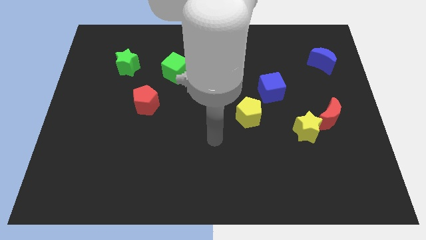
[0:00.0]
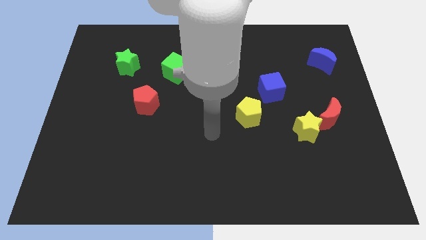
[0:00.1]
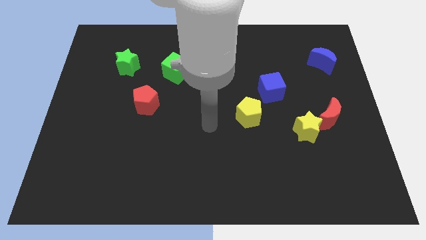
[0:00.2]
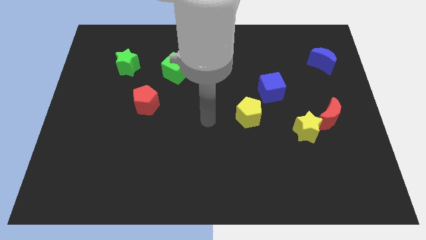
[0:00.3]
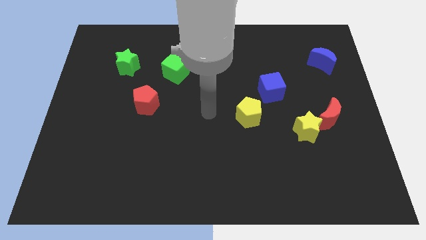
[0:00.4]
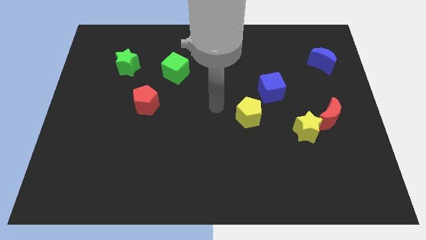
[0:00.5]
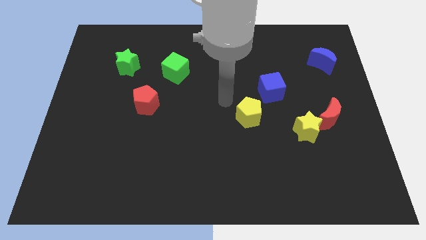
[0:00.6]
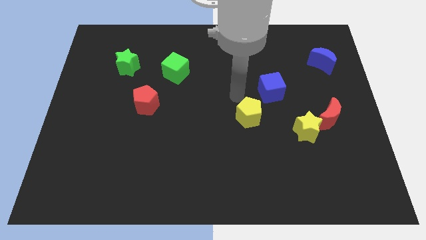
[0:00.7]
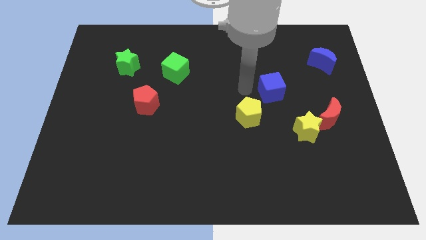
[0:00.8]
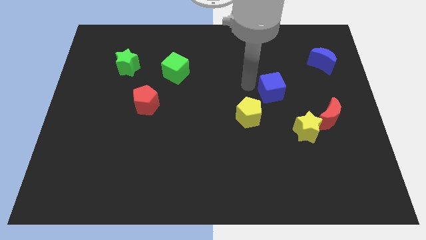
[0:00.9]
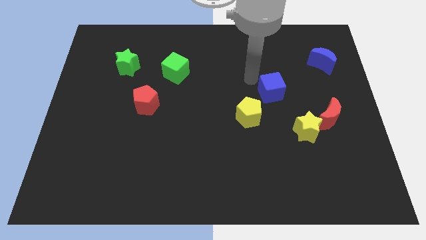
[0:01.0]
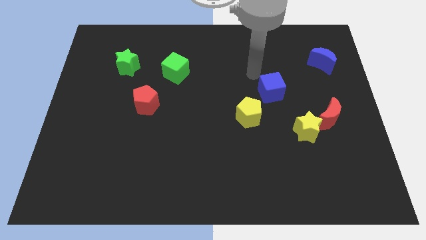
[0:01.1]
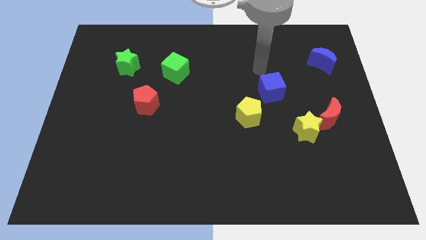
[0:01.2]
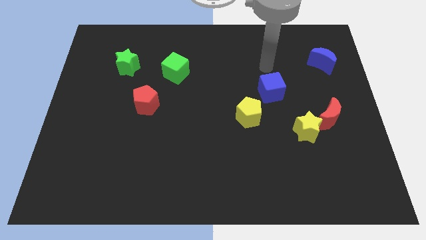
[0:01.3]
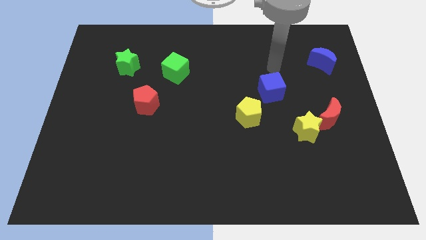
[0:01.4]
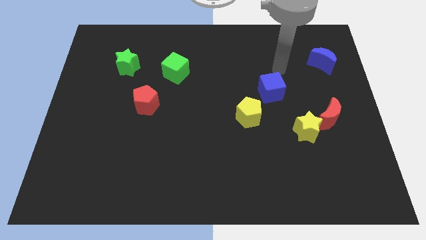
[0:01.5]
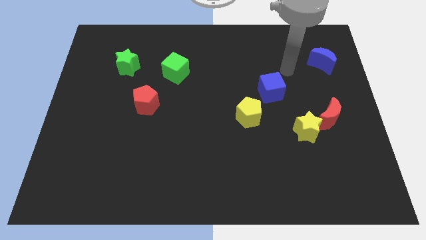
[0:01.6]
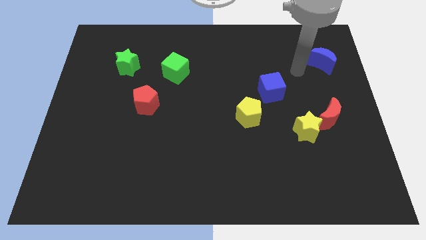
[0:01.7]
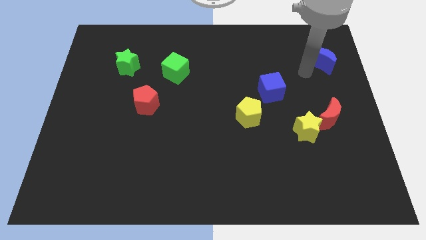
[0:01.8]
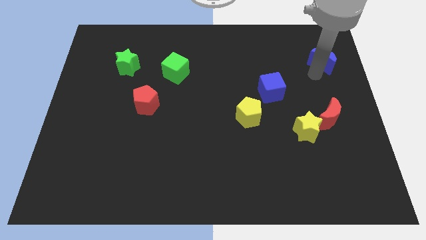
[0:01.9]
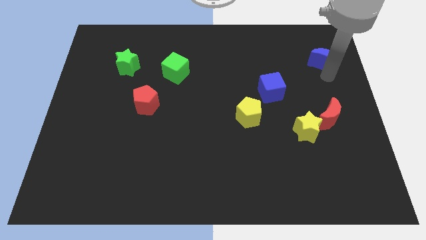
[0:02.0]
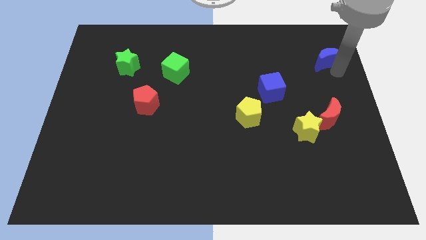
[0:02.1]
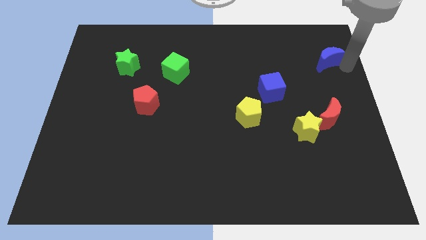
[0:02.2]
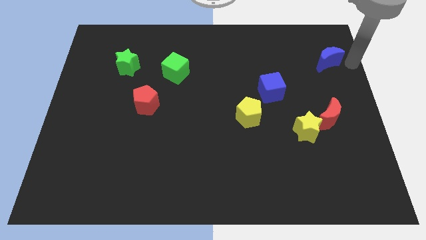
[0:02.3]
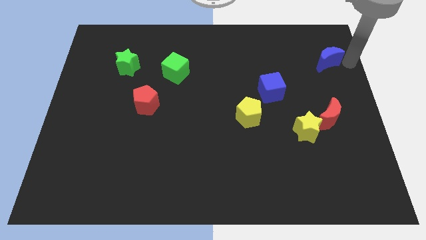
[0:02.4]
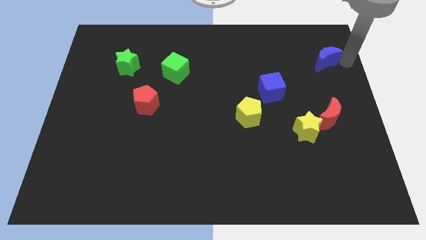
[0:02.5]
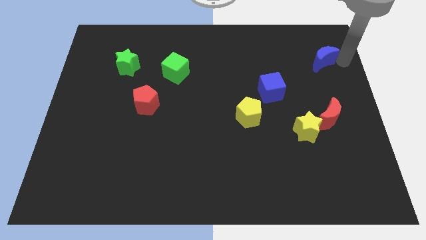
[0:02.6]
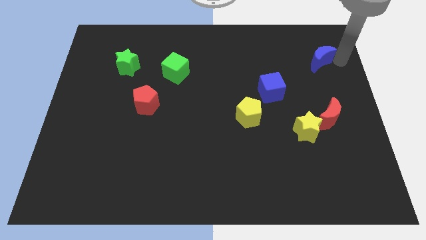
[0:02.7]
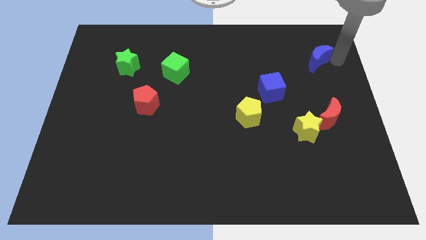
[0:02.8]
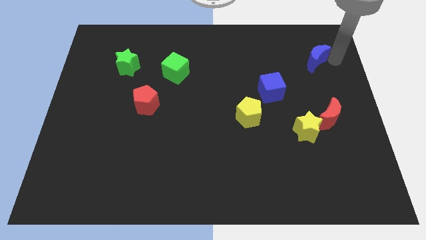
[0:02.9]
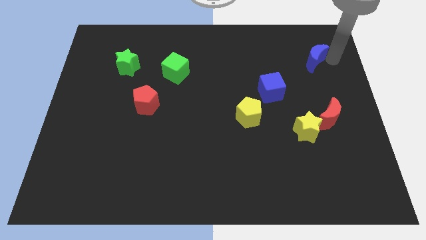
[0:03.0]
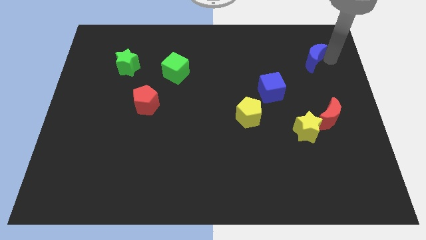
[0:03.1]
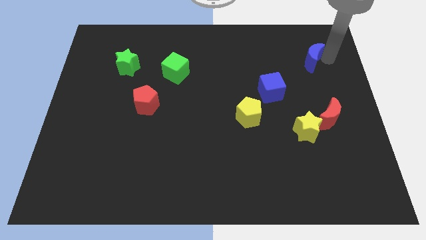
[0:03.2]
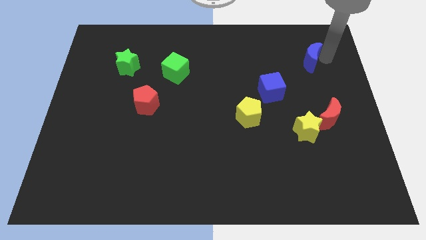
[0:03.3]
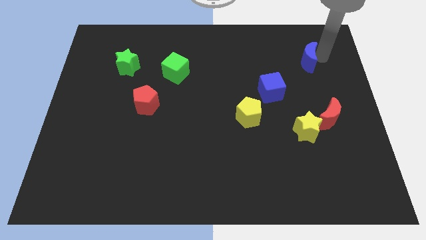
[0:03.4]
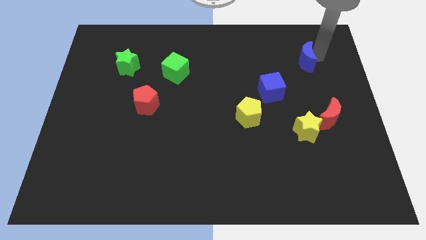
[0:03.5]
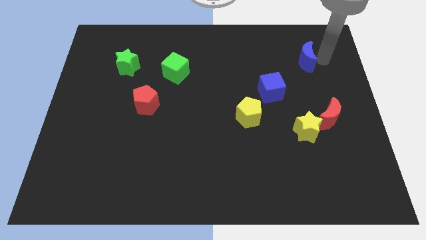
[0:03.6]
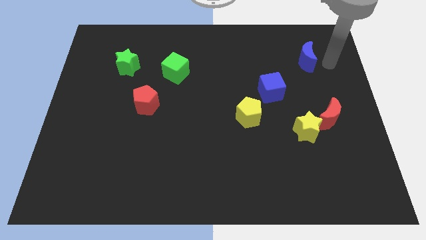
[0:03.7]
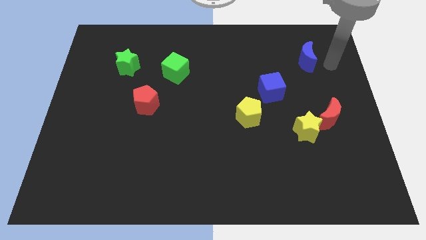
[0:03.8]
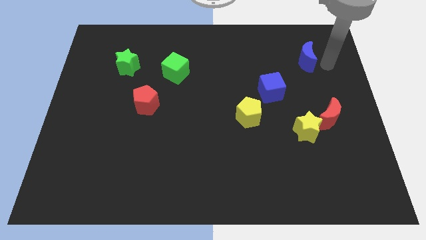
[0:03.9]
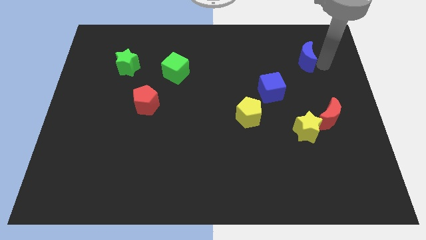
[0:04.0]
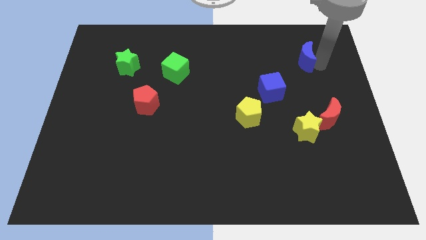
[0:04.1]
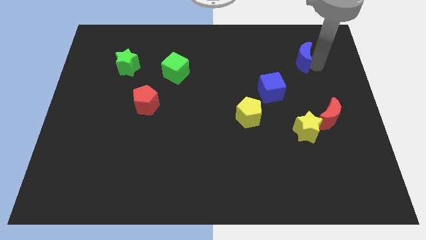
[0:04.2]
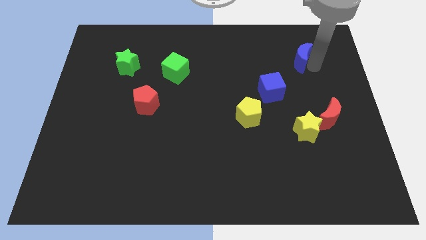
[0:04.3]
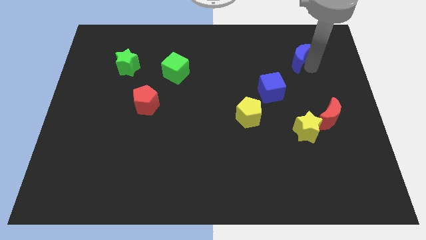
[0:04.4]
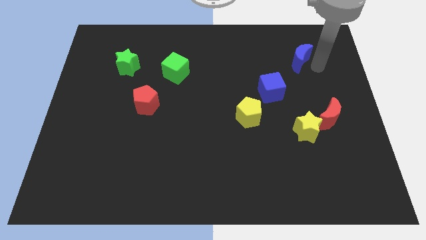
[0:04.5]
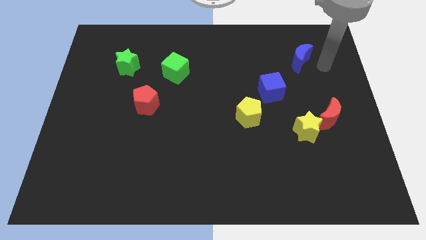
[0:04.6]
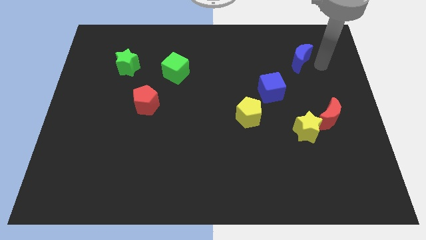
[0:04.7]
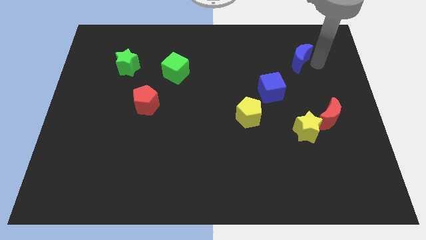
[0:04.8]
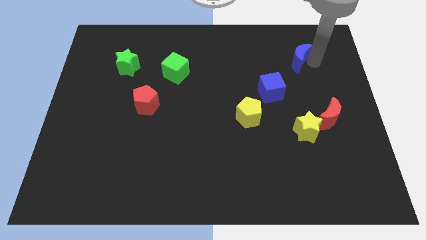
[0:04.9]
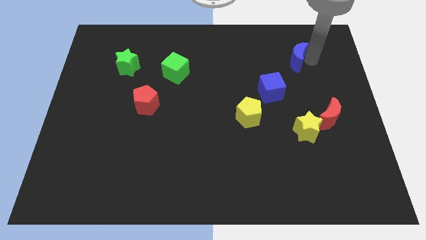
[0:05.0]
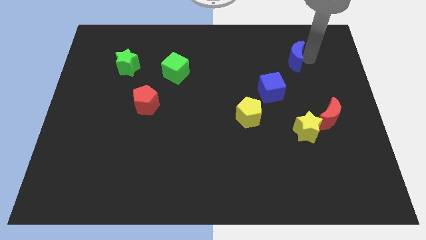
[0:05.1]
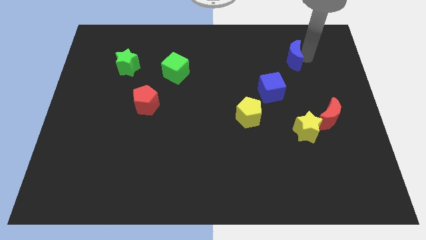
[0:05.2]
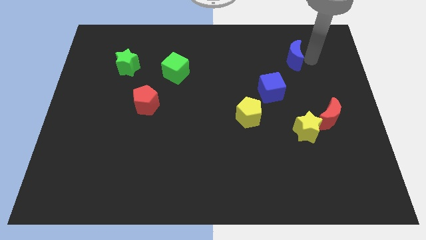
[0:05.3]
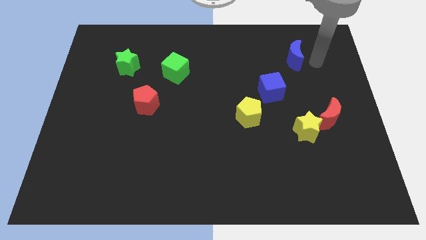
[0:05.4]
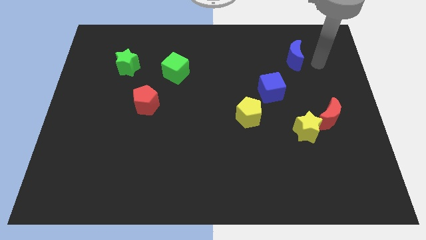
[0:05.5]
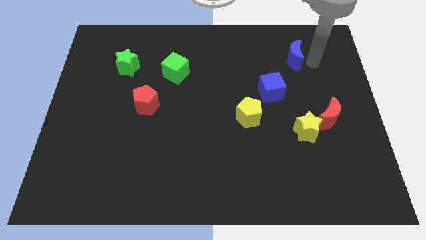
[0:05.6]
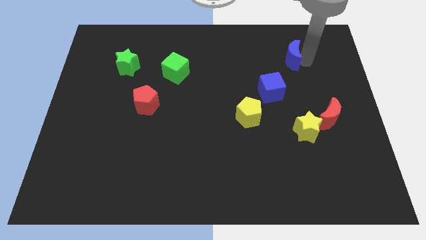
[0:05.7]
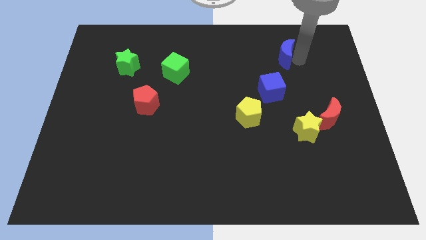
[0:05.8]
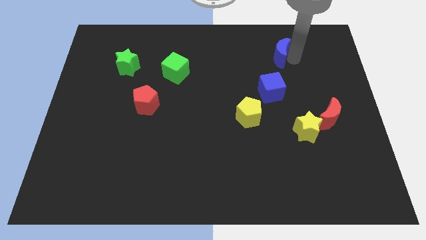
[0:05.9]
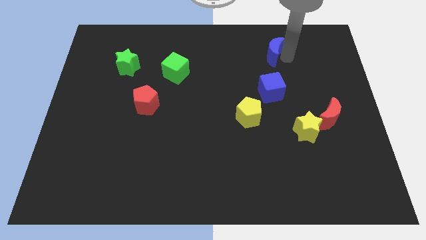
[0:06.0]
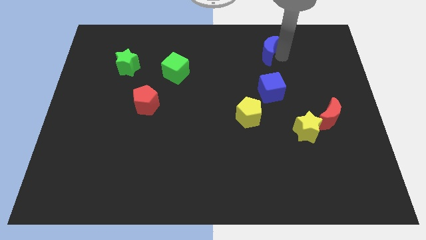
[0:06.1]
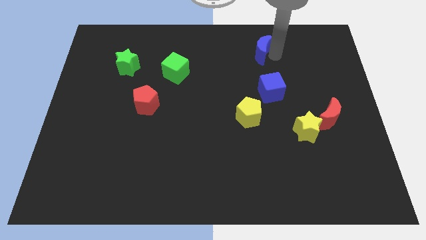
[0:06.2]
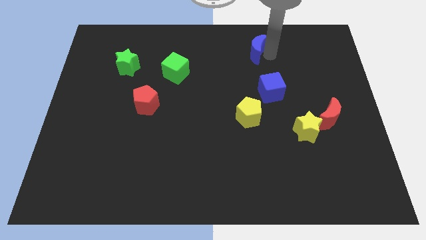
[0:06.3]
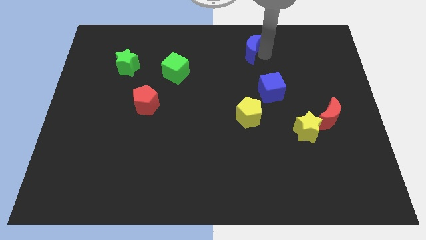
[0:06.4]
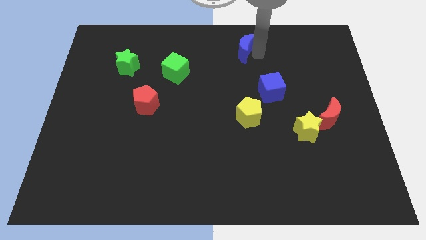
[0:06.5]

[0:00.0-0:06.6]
move the blue moon to the top side
